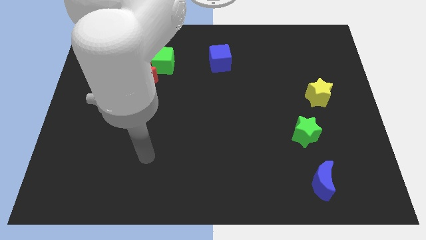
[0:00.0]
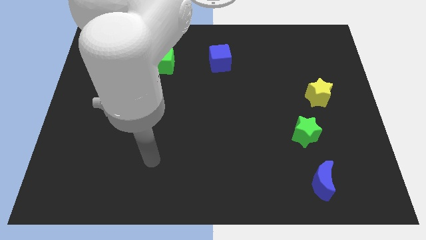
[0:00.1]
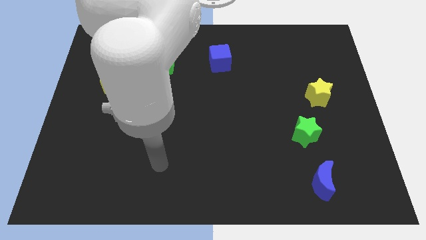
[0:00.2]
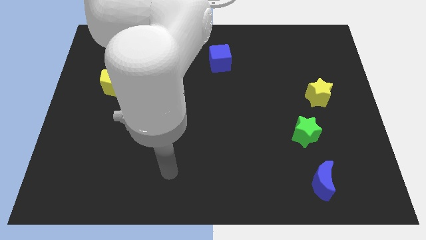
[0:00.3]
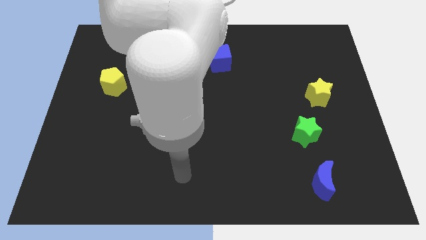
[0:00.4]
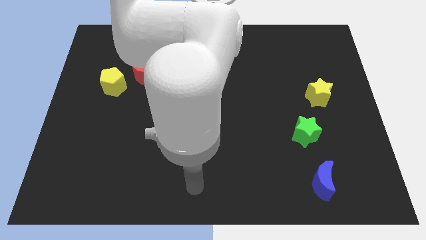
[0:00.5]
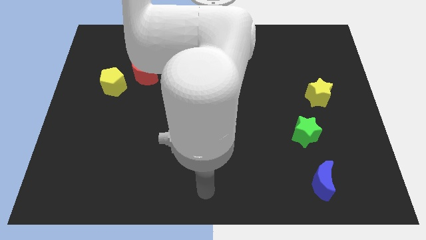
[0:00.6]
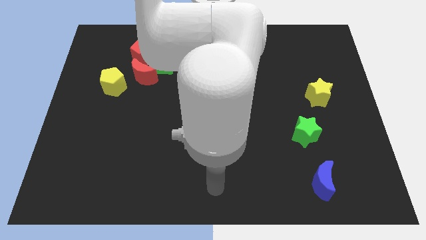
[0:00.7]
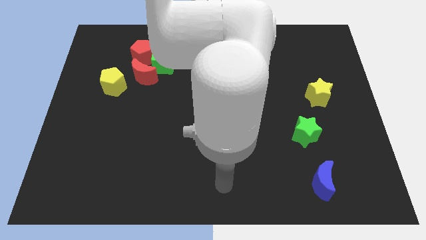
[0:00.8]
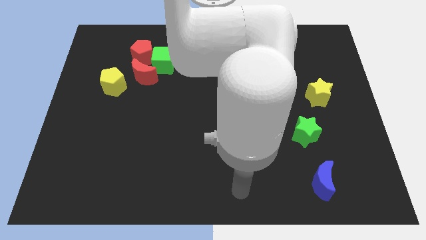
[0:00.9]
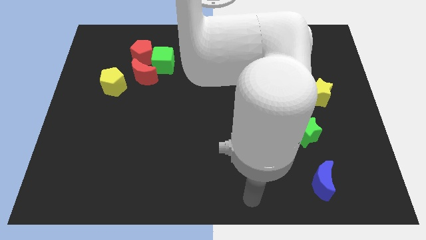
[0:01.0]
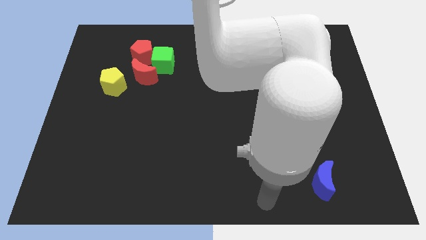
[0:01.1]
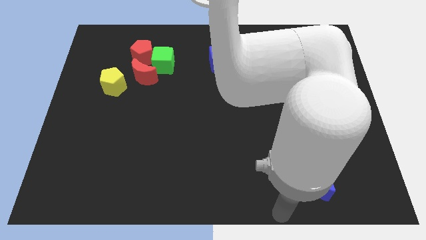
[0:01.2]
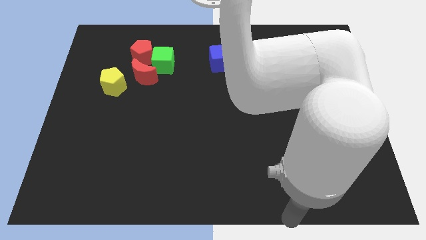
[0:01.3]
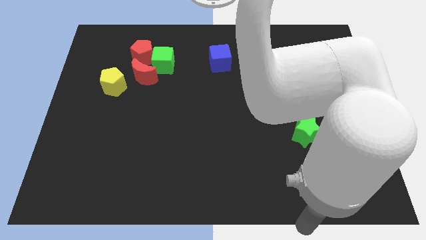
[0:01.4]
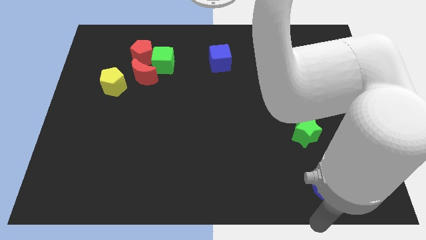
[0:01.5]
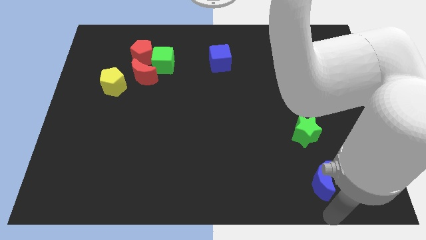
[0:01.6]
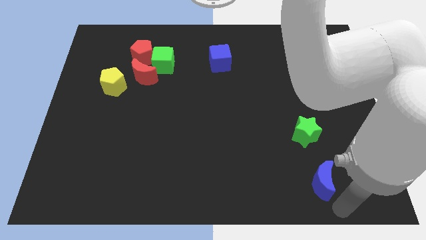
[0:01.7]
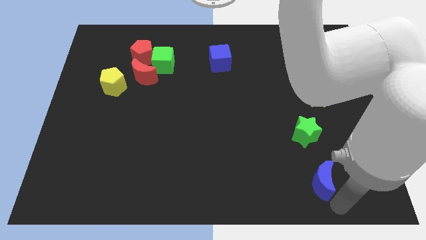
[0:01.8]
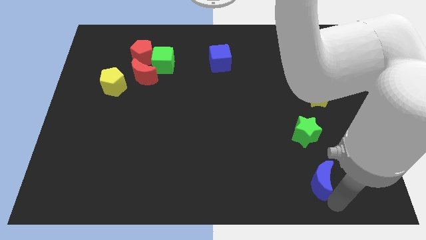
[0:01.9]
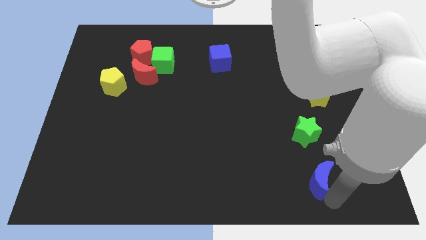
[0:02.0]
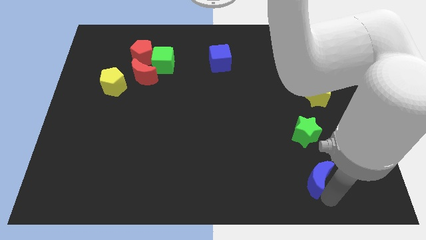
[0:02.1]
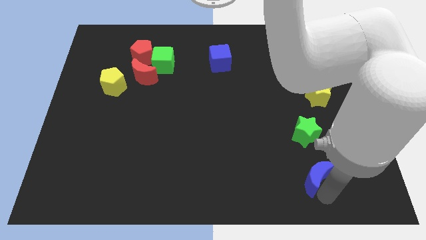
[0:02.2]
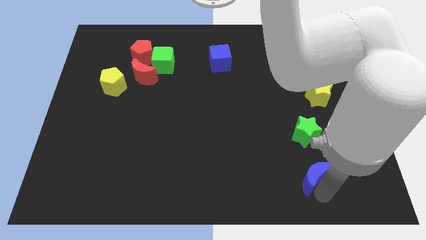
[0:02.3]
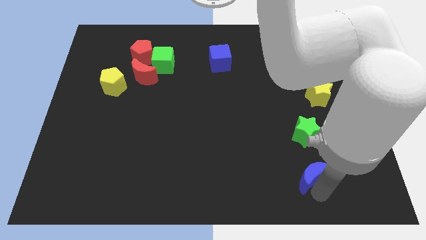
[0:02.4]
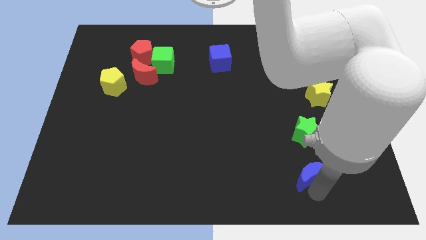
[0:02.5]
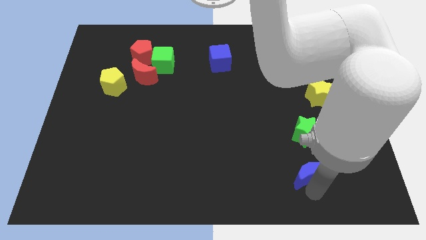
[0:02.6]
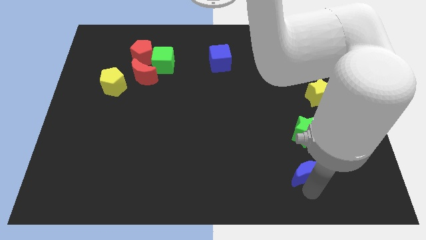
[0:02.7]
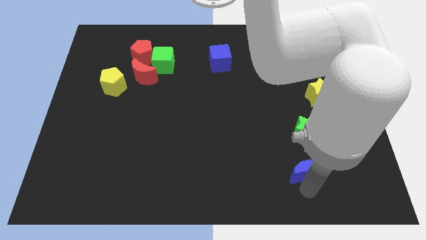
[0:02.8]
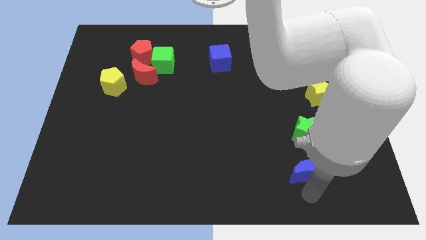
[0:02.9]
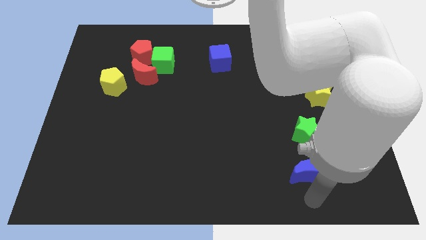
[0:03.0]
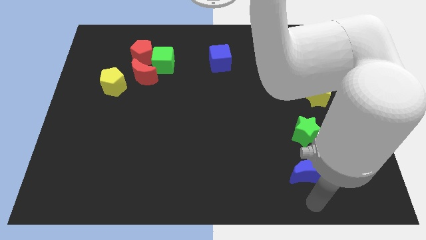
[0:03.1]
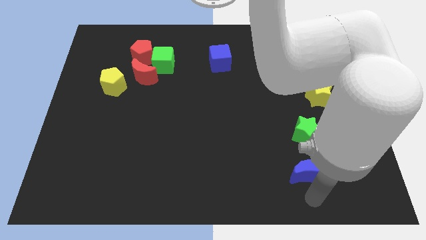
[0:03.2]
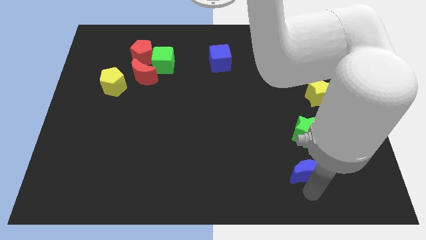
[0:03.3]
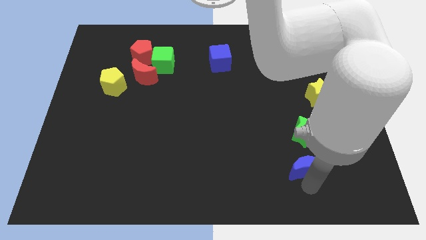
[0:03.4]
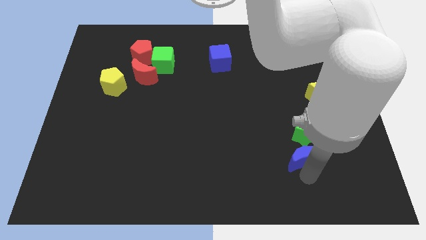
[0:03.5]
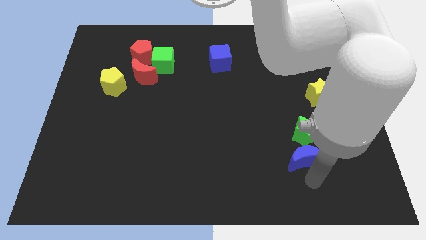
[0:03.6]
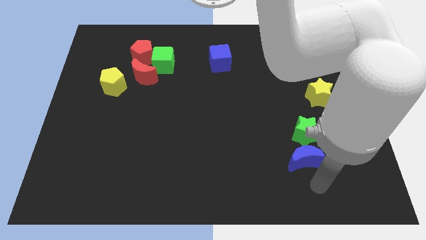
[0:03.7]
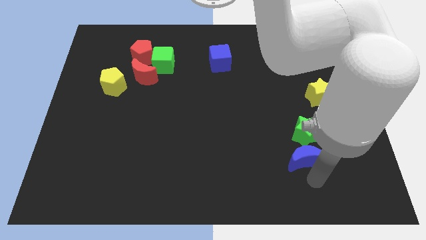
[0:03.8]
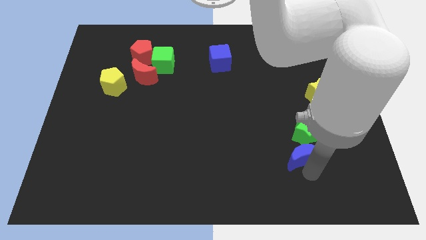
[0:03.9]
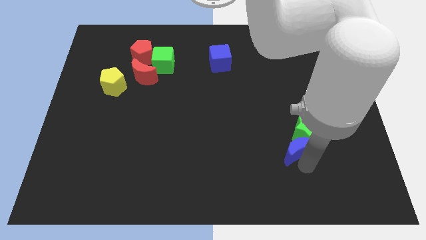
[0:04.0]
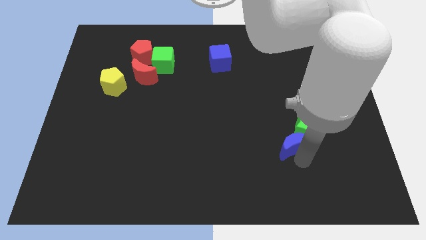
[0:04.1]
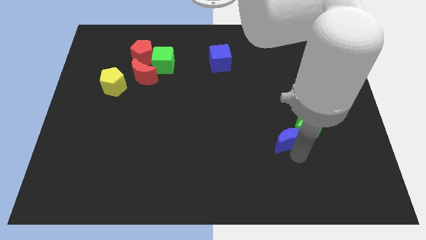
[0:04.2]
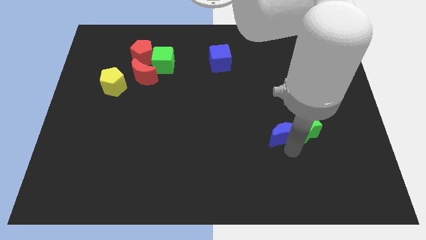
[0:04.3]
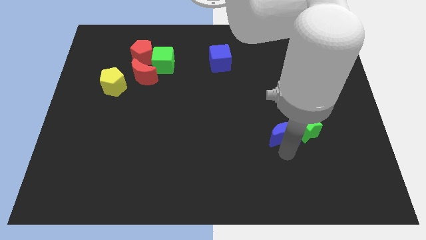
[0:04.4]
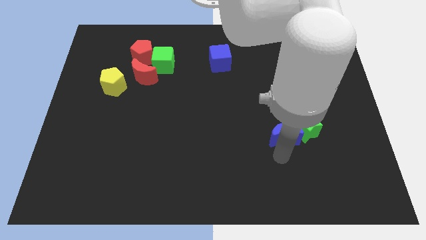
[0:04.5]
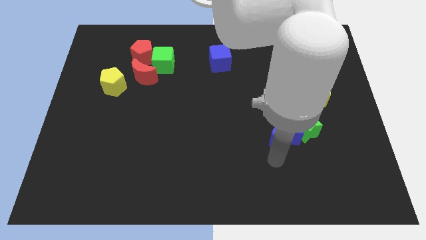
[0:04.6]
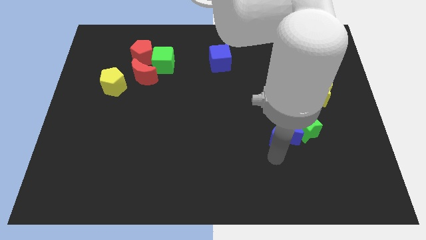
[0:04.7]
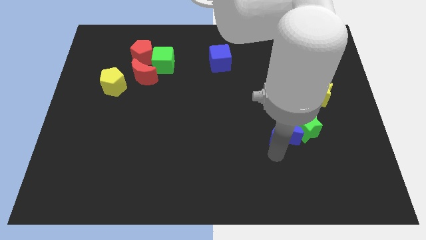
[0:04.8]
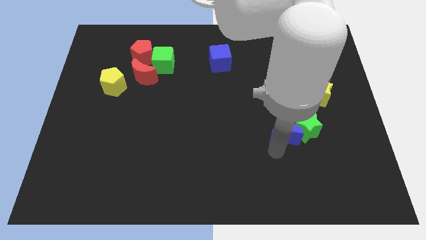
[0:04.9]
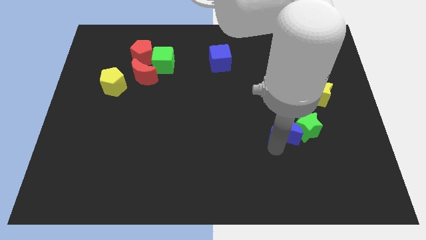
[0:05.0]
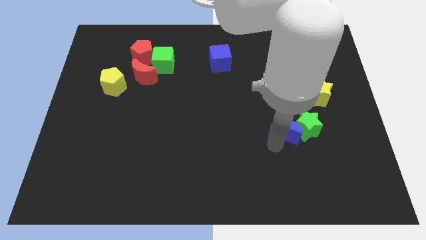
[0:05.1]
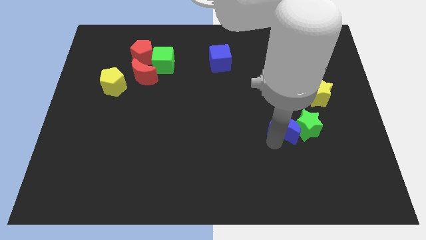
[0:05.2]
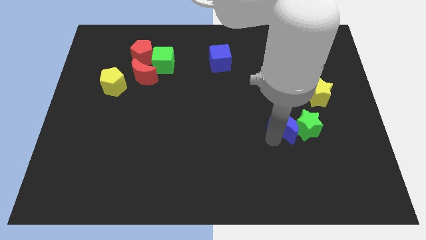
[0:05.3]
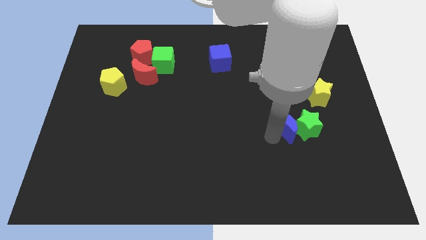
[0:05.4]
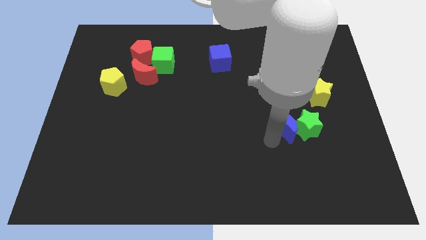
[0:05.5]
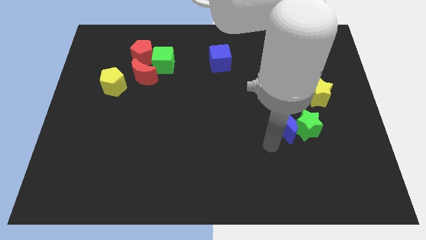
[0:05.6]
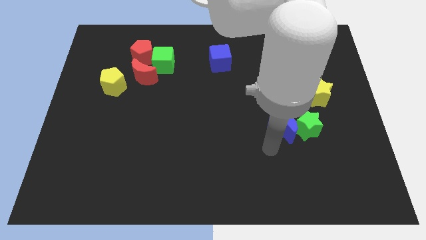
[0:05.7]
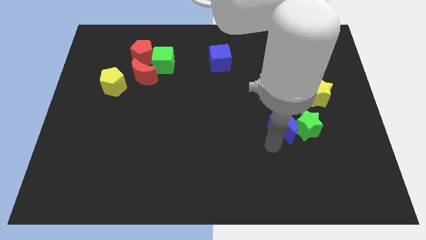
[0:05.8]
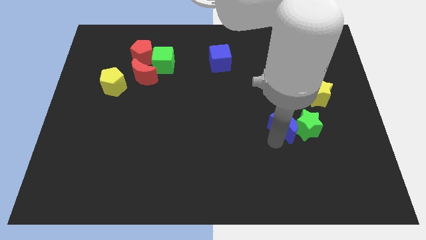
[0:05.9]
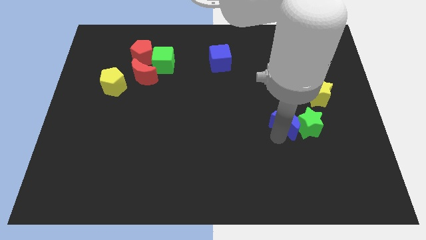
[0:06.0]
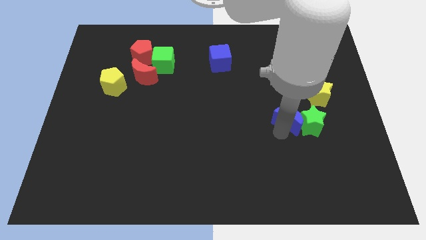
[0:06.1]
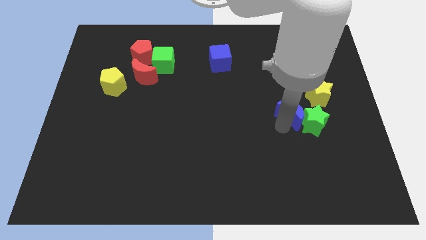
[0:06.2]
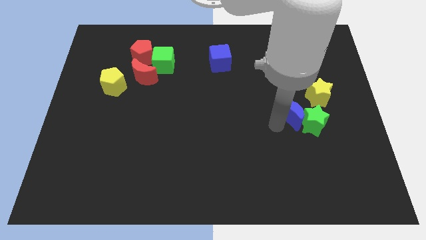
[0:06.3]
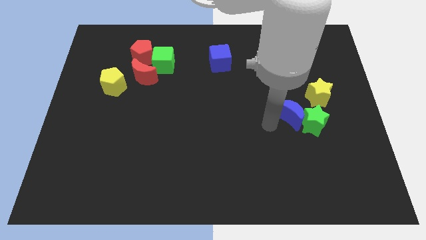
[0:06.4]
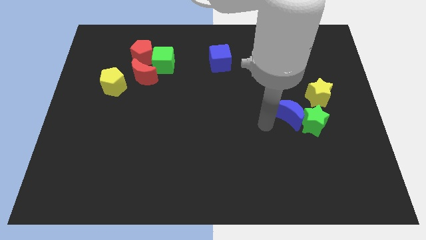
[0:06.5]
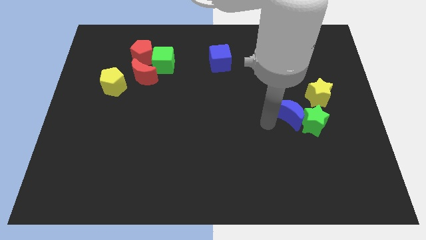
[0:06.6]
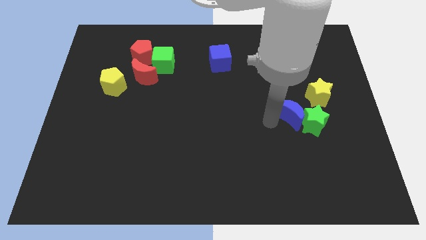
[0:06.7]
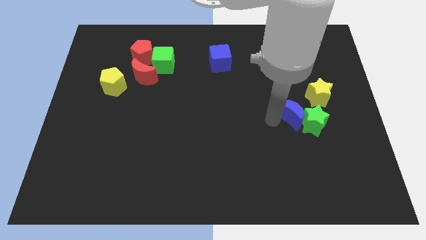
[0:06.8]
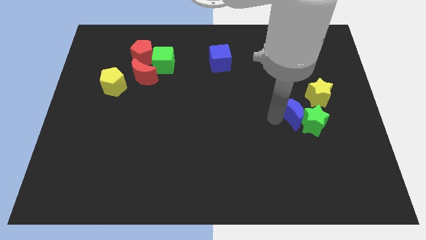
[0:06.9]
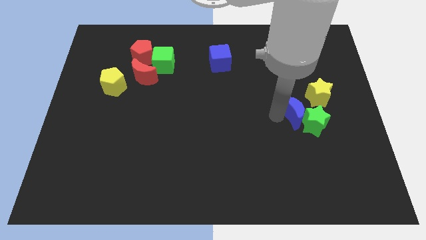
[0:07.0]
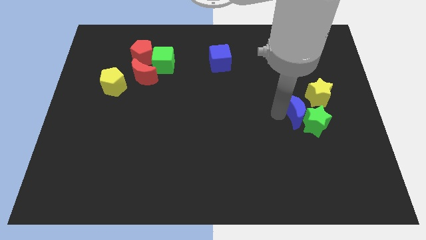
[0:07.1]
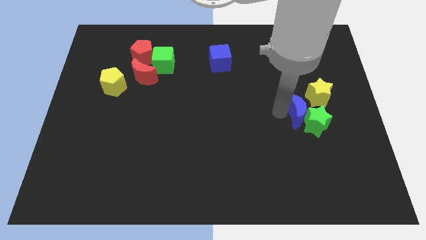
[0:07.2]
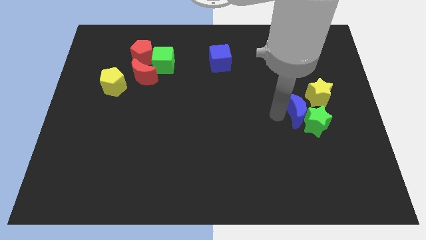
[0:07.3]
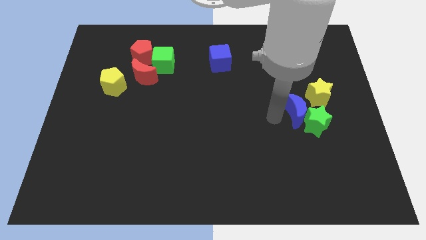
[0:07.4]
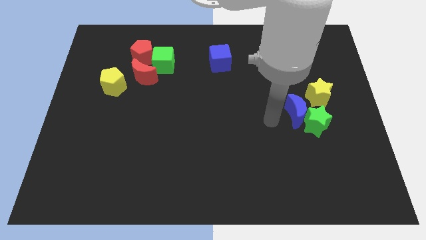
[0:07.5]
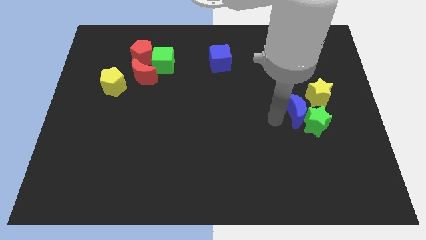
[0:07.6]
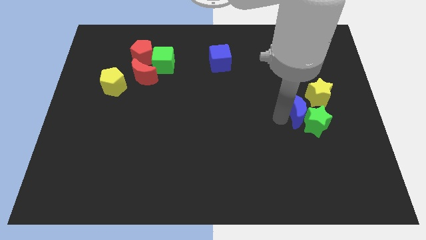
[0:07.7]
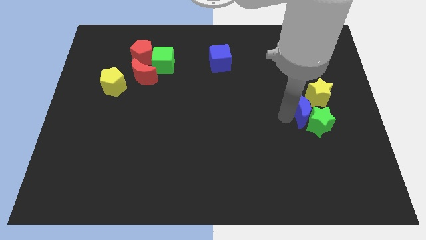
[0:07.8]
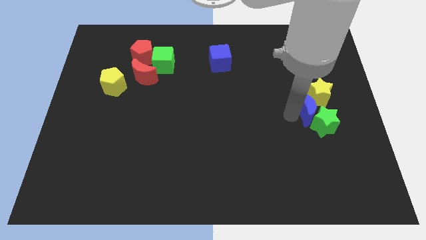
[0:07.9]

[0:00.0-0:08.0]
move the blue moon to the yellow star
